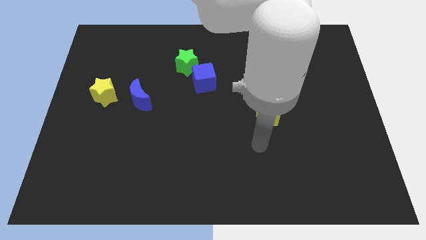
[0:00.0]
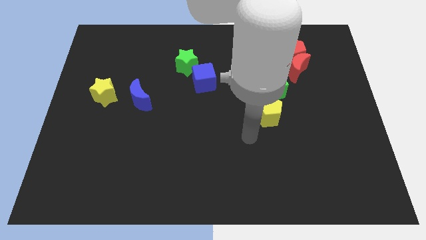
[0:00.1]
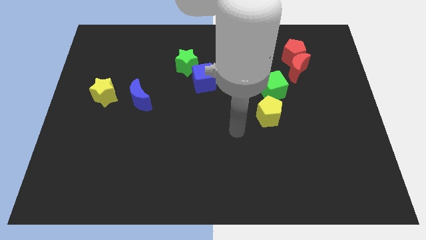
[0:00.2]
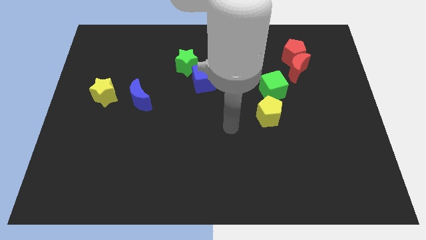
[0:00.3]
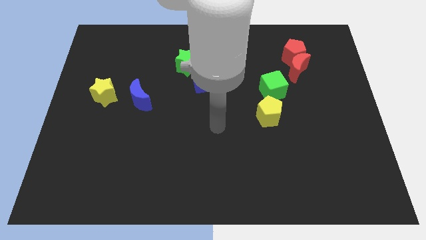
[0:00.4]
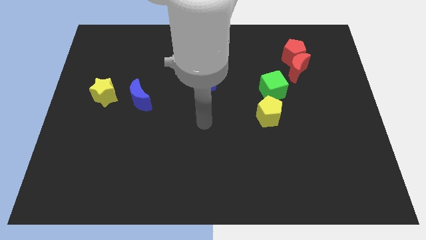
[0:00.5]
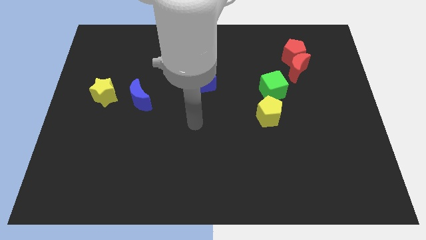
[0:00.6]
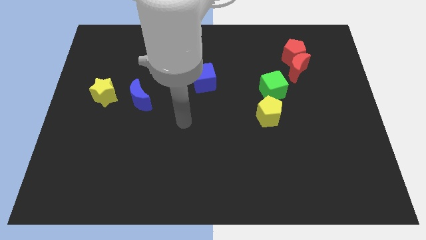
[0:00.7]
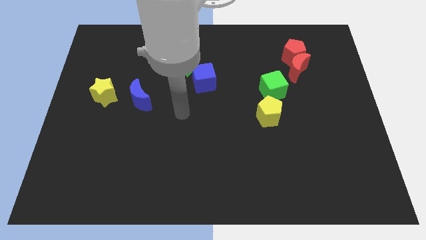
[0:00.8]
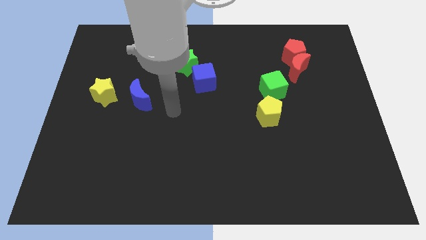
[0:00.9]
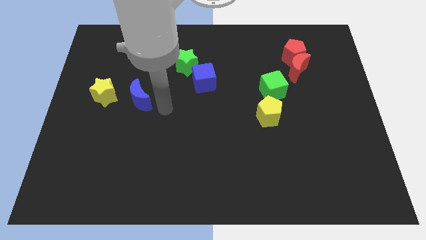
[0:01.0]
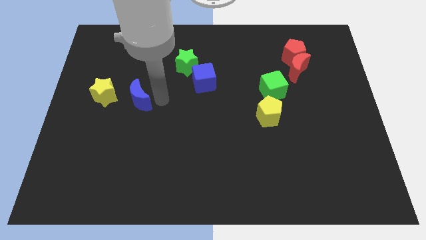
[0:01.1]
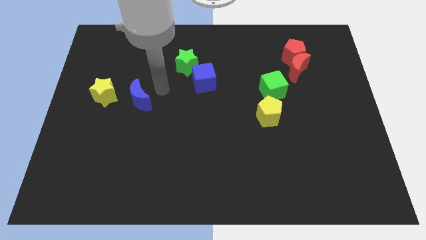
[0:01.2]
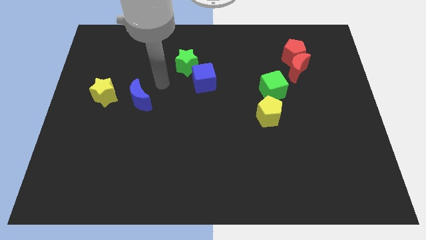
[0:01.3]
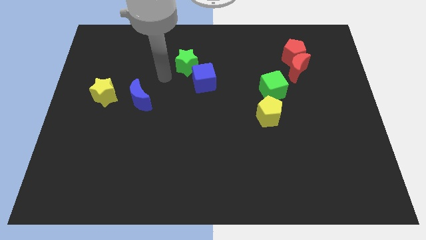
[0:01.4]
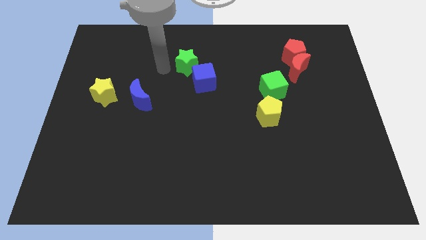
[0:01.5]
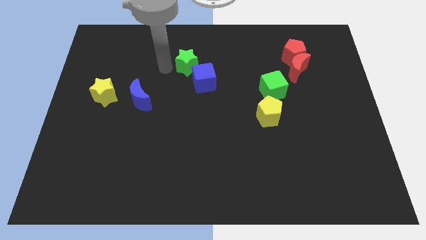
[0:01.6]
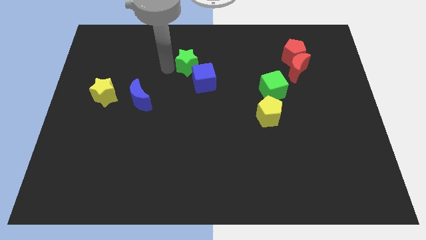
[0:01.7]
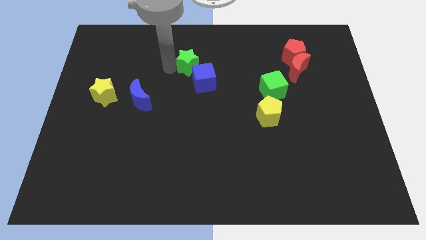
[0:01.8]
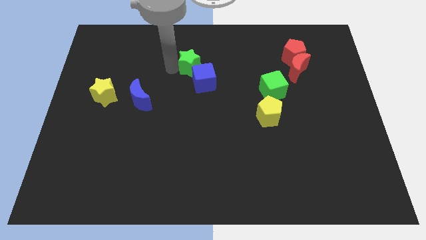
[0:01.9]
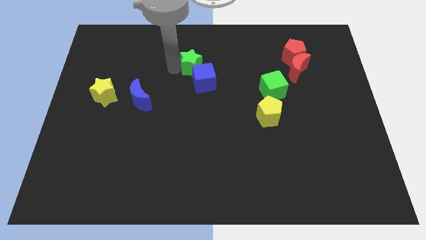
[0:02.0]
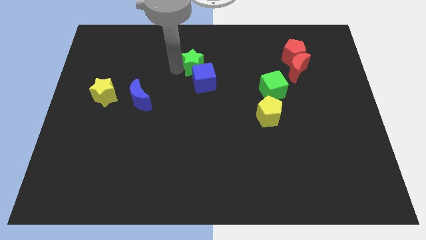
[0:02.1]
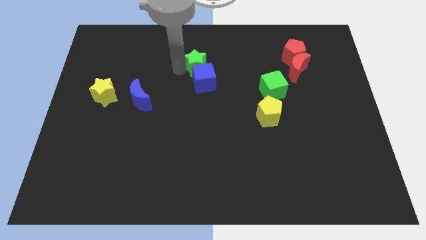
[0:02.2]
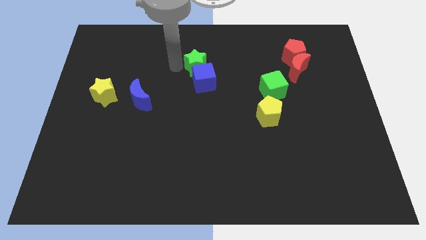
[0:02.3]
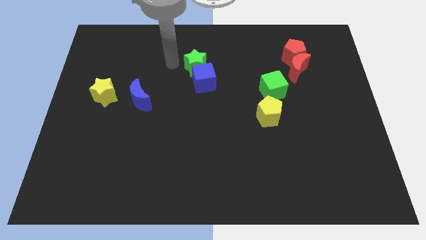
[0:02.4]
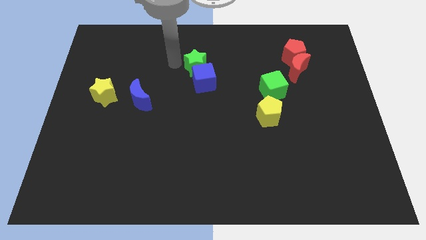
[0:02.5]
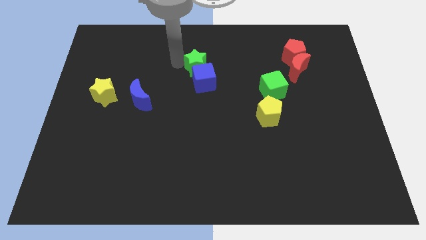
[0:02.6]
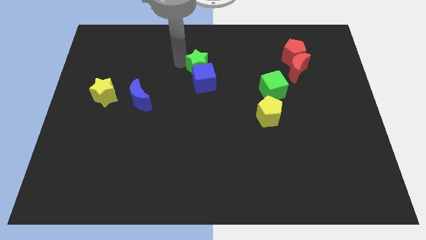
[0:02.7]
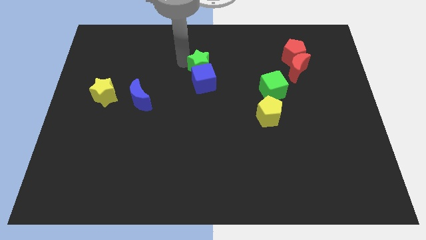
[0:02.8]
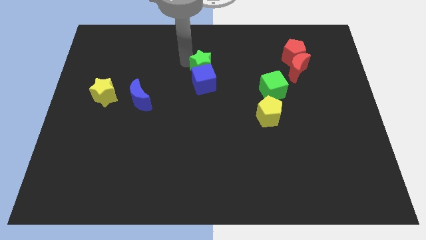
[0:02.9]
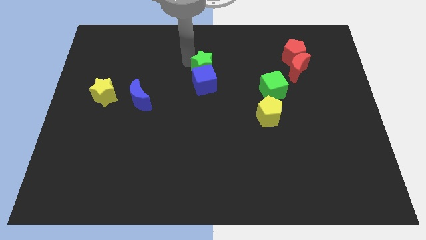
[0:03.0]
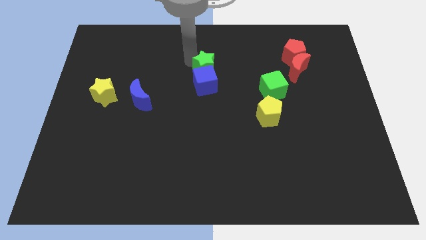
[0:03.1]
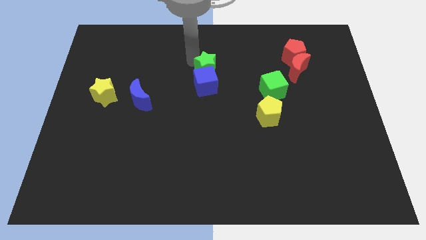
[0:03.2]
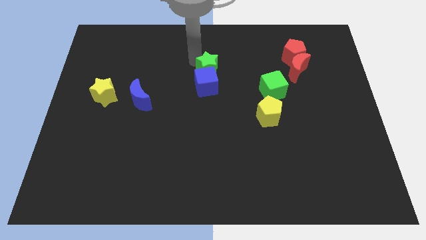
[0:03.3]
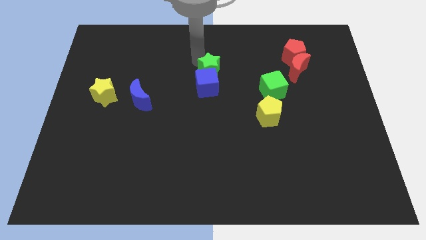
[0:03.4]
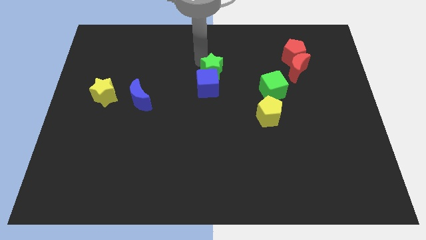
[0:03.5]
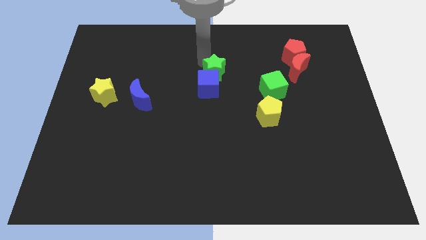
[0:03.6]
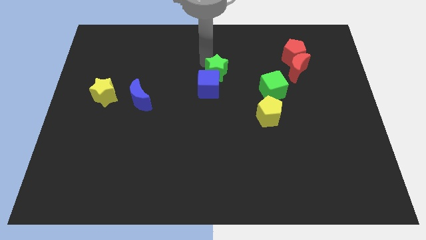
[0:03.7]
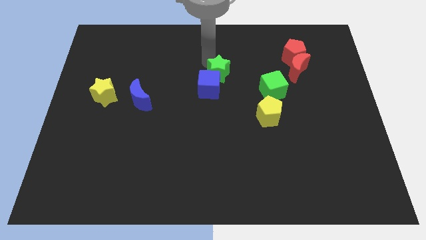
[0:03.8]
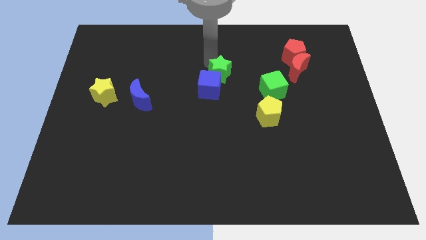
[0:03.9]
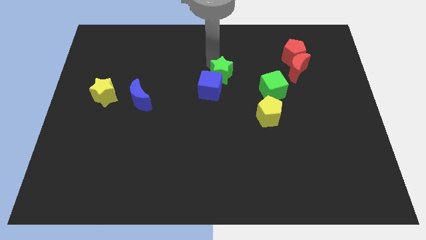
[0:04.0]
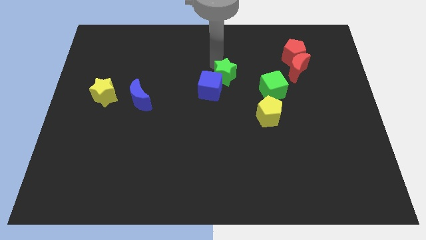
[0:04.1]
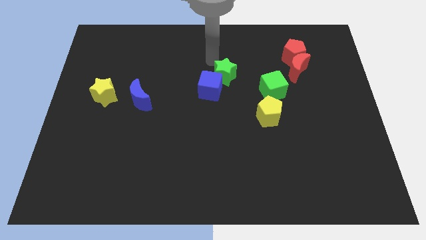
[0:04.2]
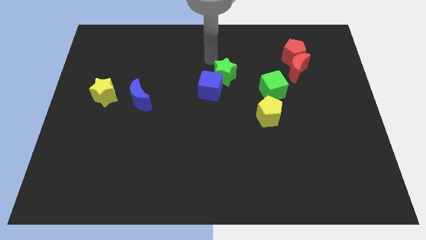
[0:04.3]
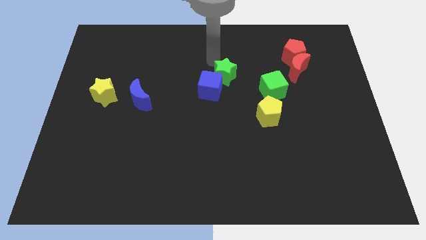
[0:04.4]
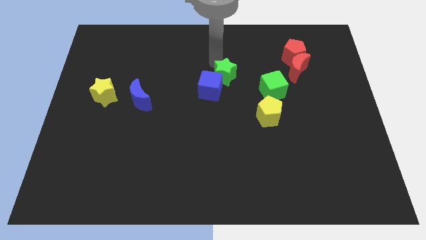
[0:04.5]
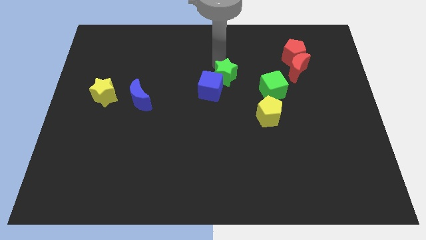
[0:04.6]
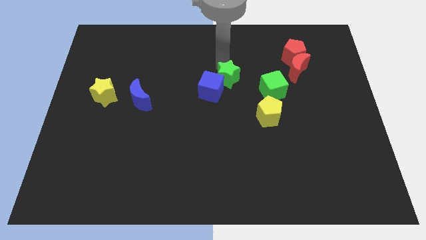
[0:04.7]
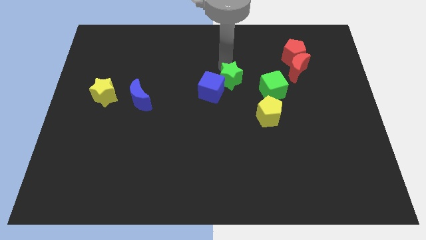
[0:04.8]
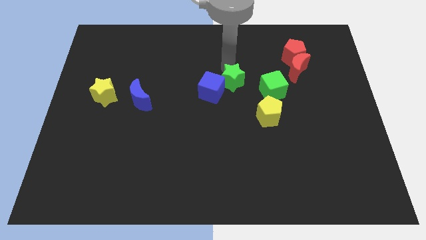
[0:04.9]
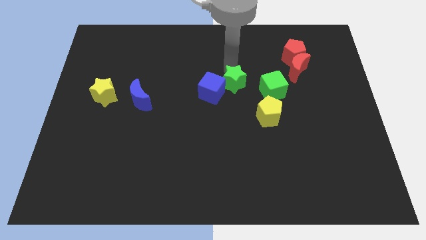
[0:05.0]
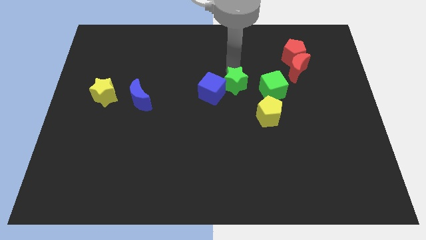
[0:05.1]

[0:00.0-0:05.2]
move the green star diagonally up and to the left of the yellow pentagon
